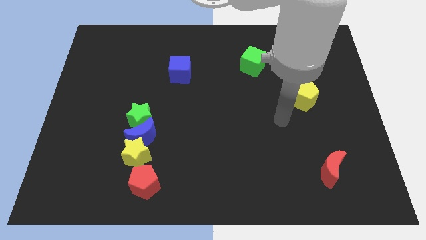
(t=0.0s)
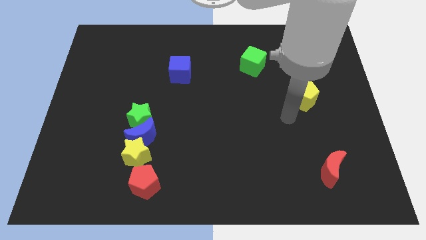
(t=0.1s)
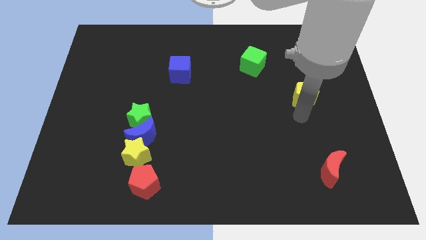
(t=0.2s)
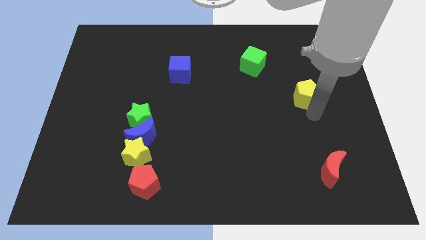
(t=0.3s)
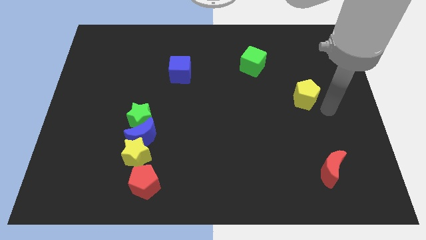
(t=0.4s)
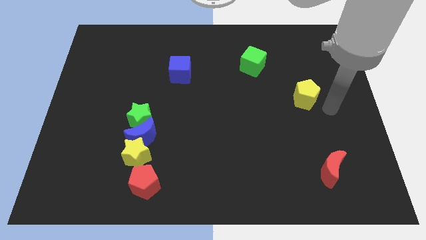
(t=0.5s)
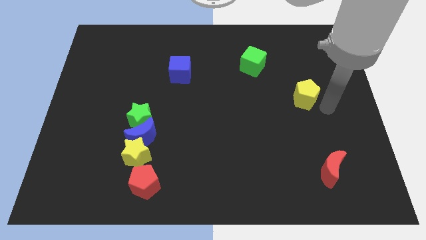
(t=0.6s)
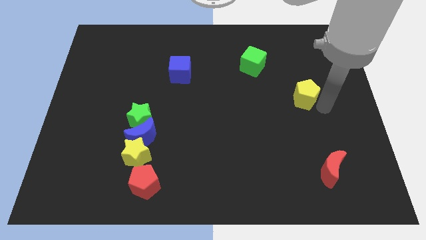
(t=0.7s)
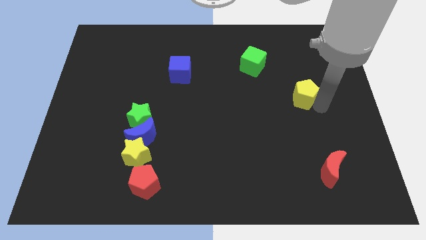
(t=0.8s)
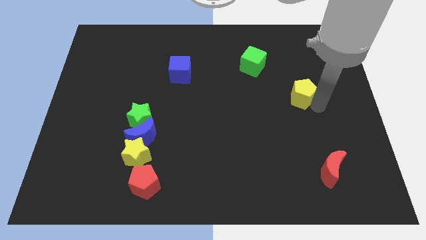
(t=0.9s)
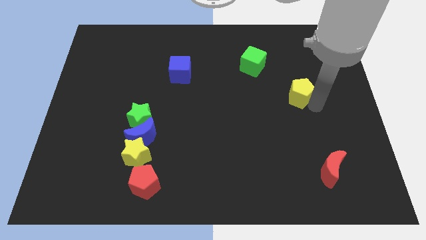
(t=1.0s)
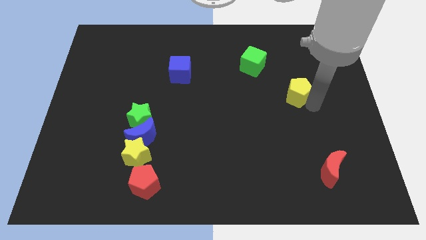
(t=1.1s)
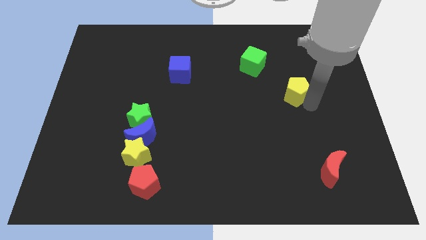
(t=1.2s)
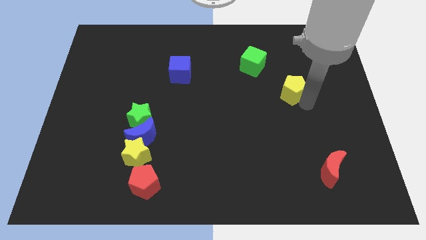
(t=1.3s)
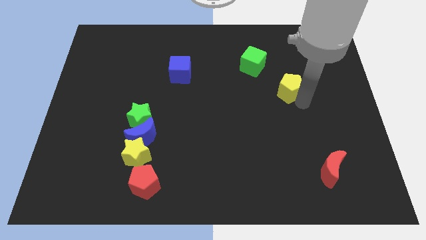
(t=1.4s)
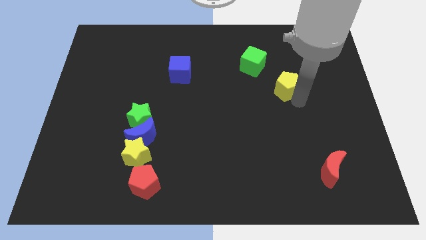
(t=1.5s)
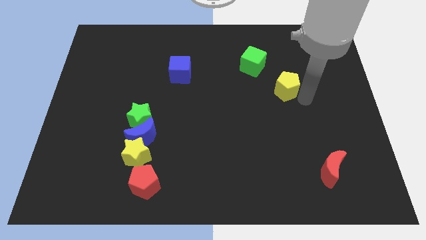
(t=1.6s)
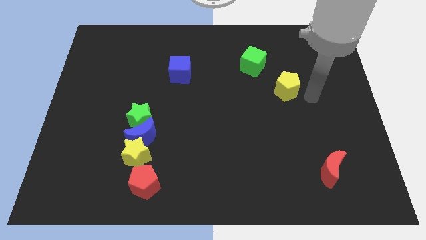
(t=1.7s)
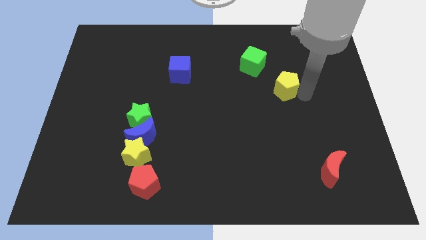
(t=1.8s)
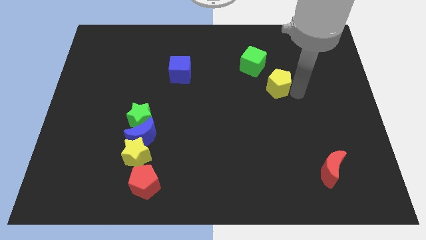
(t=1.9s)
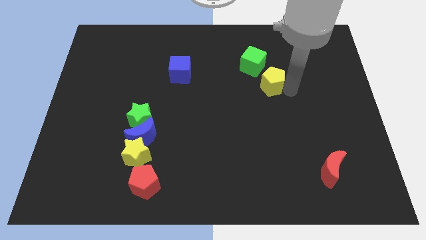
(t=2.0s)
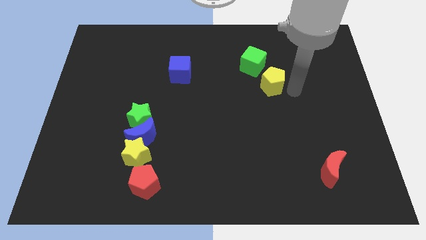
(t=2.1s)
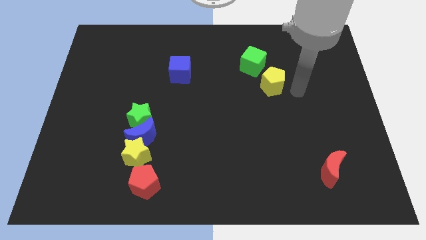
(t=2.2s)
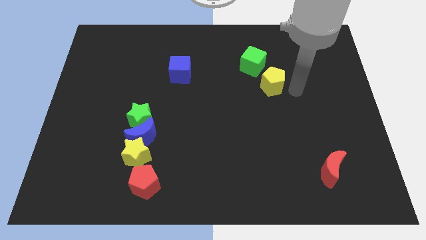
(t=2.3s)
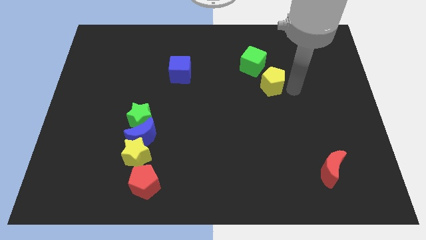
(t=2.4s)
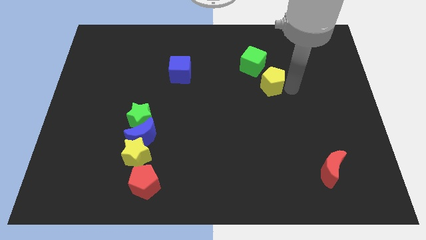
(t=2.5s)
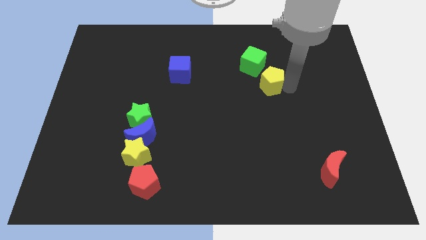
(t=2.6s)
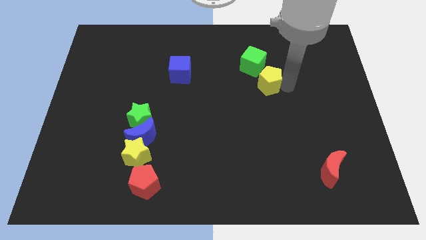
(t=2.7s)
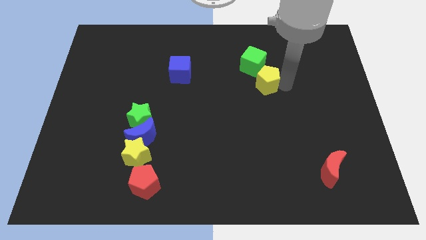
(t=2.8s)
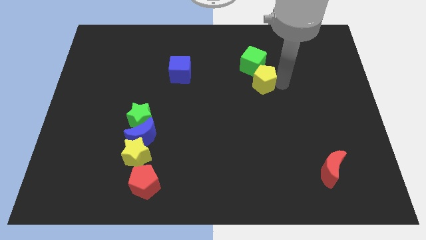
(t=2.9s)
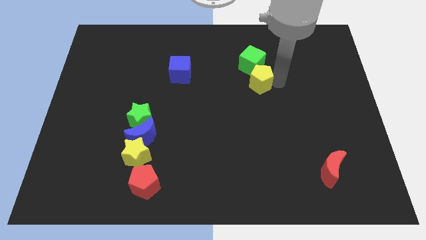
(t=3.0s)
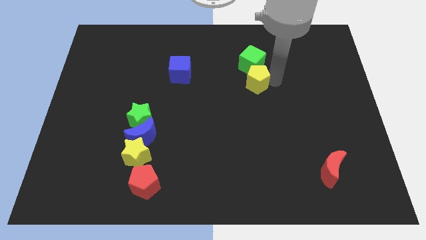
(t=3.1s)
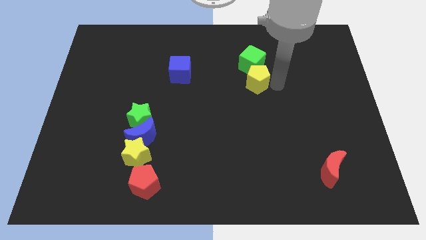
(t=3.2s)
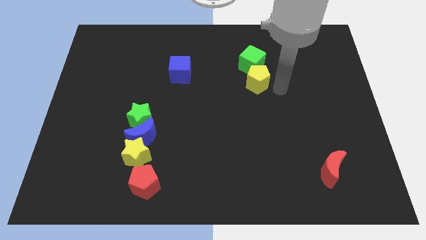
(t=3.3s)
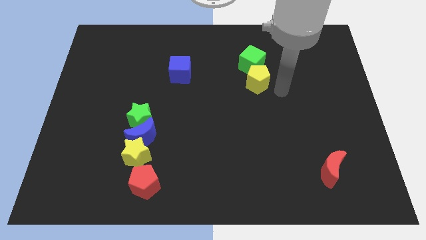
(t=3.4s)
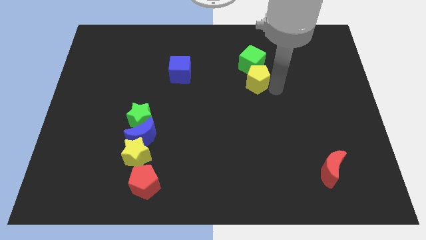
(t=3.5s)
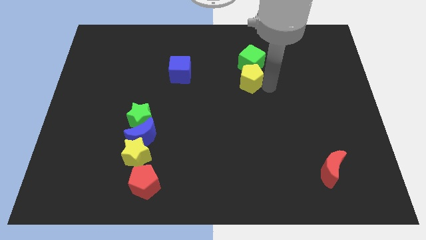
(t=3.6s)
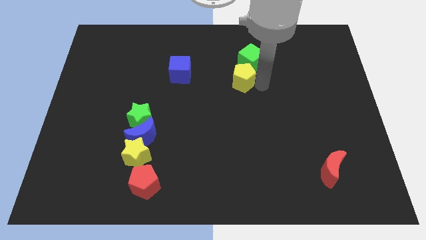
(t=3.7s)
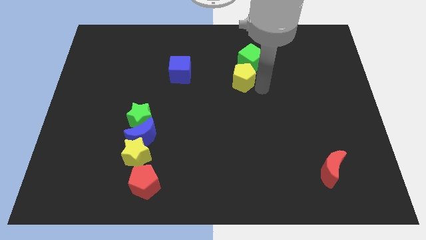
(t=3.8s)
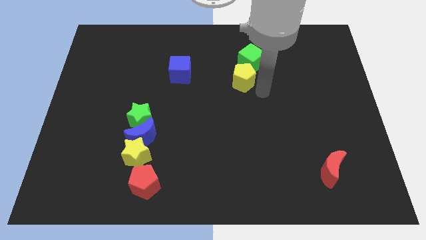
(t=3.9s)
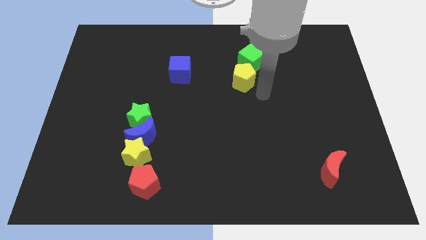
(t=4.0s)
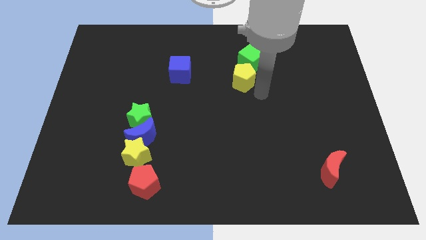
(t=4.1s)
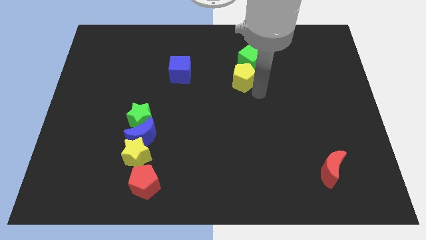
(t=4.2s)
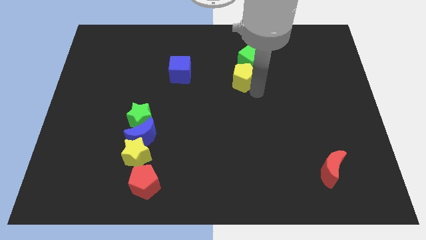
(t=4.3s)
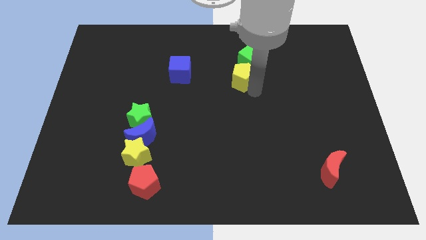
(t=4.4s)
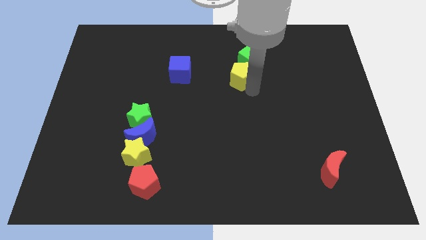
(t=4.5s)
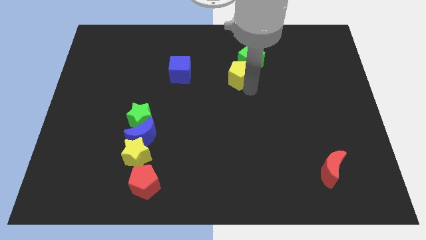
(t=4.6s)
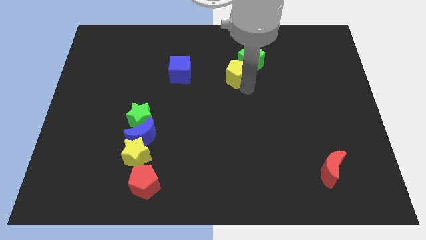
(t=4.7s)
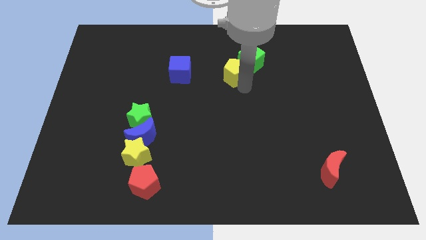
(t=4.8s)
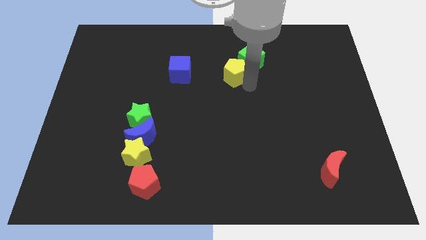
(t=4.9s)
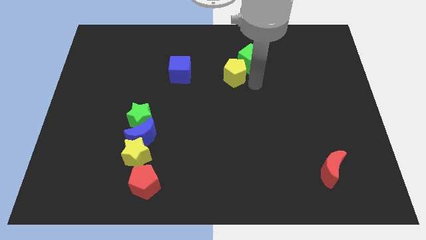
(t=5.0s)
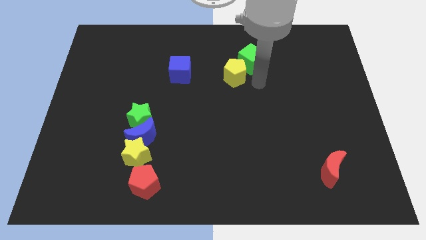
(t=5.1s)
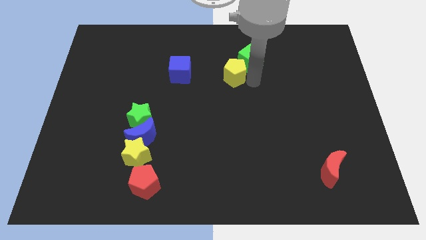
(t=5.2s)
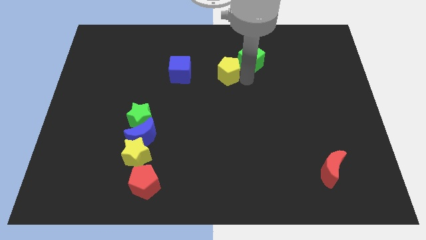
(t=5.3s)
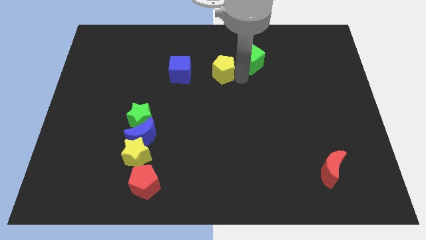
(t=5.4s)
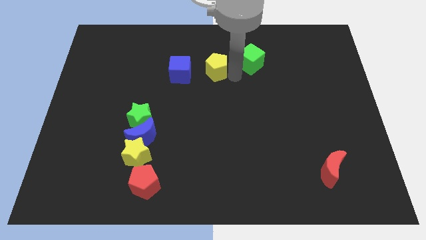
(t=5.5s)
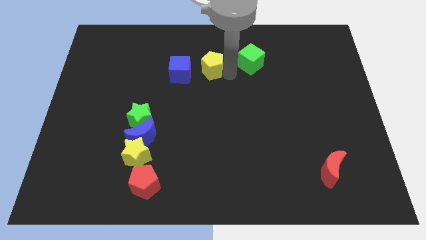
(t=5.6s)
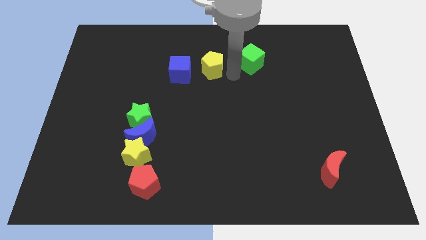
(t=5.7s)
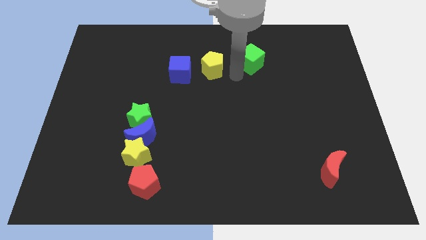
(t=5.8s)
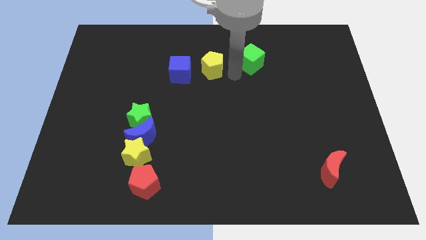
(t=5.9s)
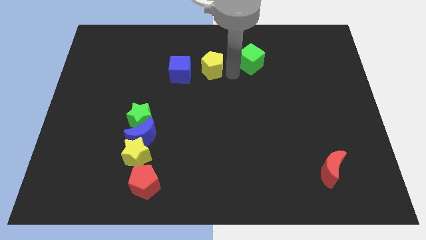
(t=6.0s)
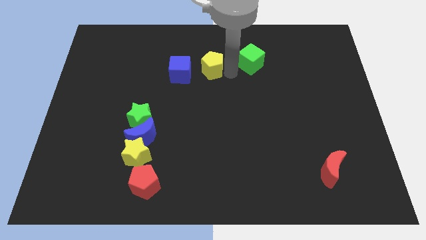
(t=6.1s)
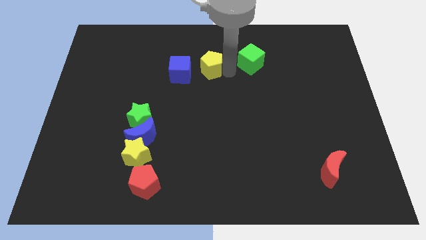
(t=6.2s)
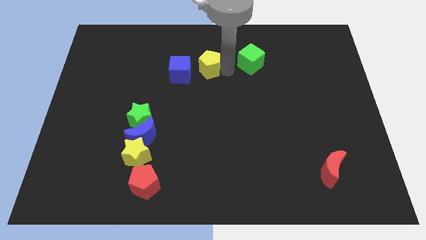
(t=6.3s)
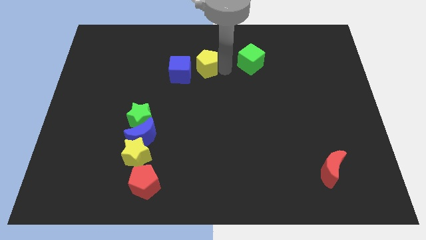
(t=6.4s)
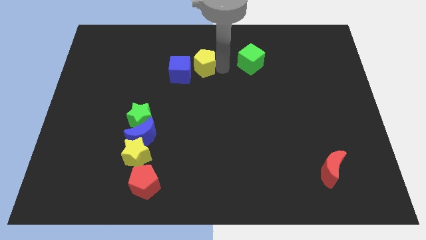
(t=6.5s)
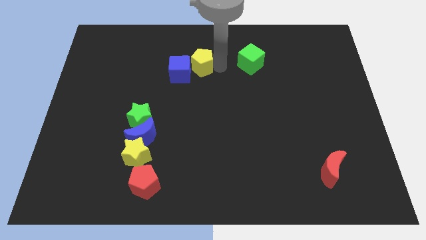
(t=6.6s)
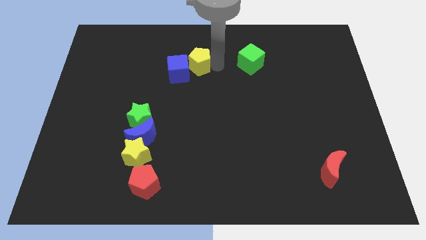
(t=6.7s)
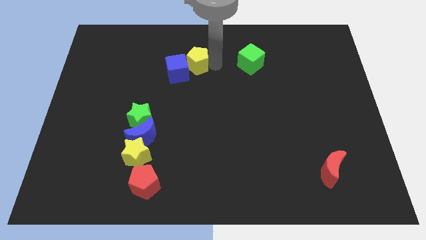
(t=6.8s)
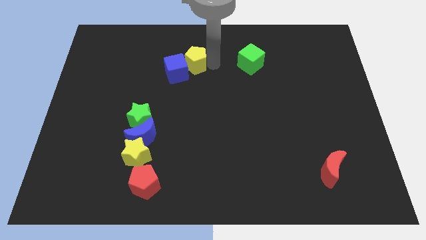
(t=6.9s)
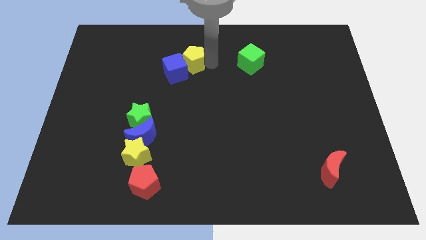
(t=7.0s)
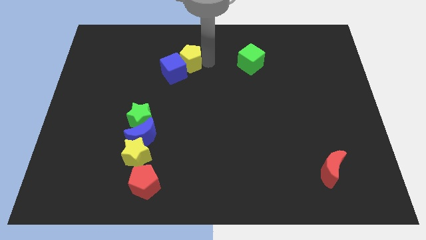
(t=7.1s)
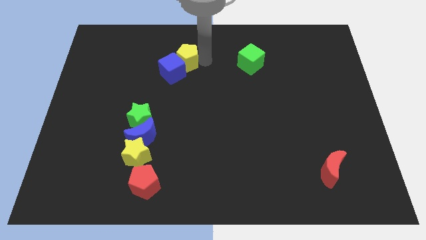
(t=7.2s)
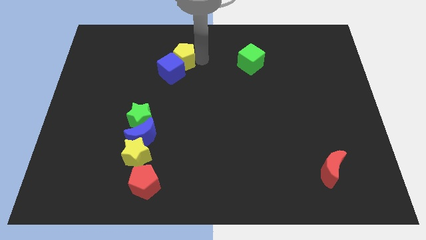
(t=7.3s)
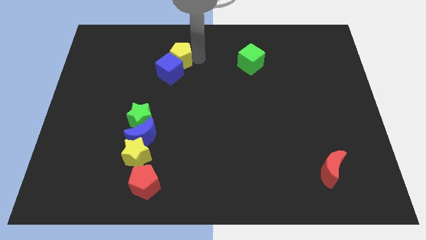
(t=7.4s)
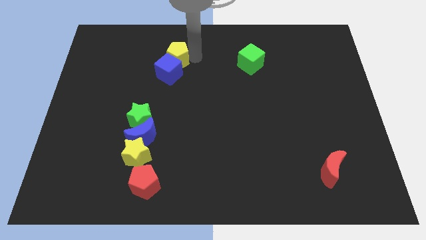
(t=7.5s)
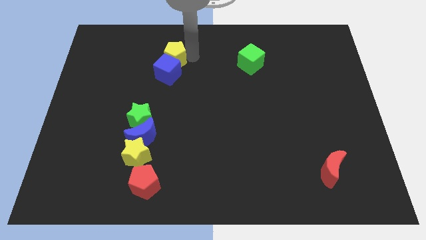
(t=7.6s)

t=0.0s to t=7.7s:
move the yellow pentagon diagonally up and to the left of the blue cube
